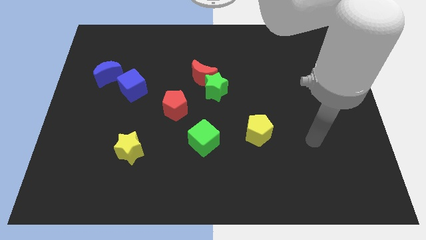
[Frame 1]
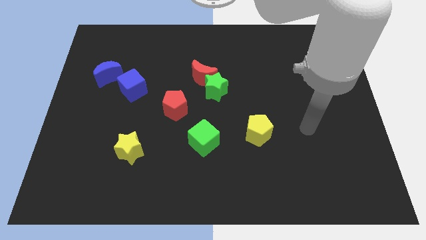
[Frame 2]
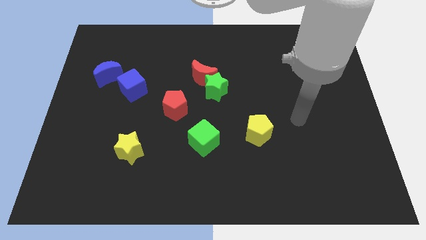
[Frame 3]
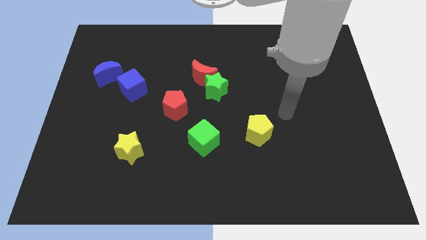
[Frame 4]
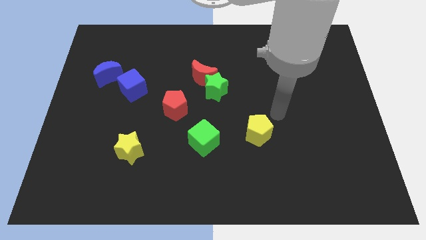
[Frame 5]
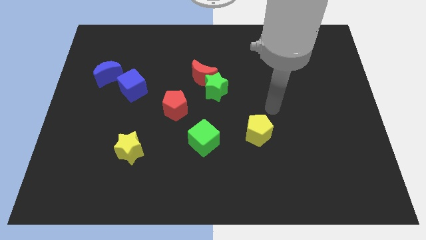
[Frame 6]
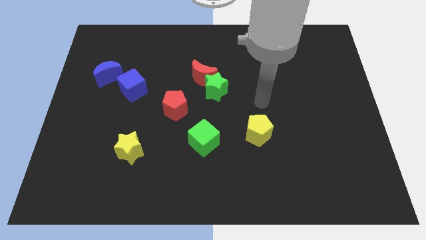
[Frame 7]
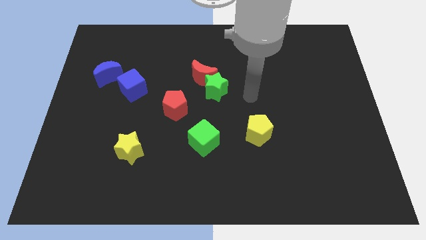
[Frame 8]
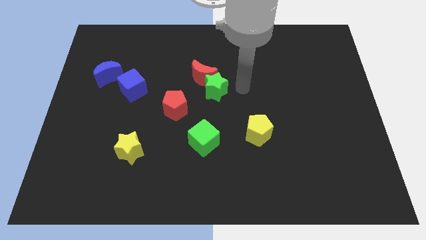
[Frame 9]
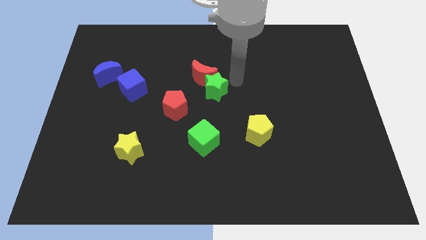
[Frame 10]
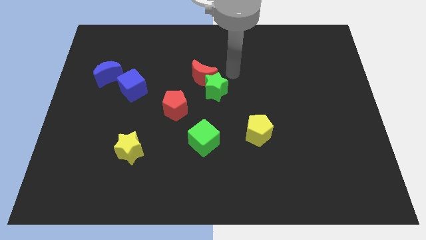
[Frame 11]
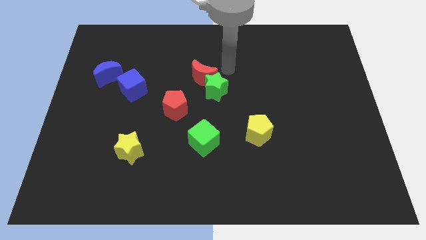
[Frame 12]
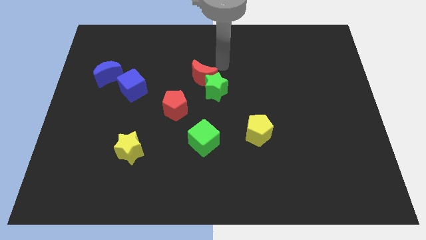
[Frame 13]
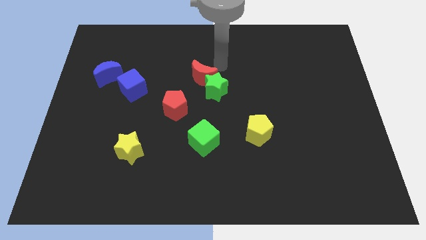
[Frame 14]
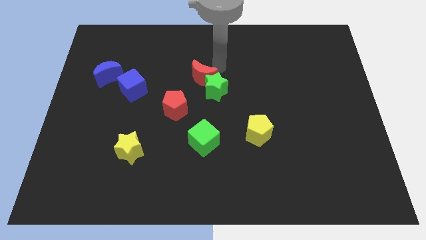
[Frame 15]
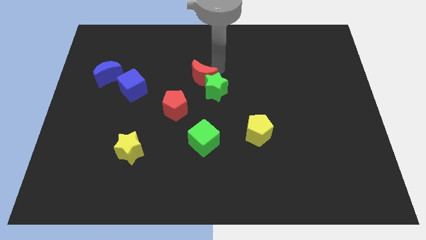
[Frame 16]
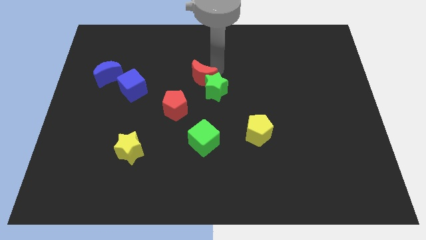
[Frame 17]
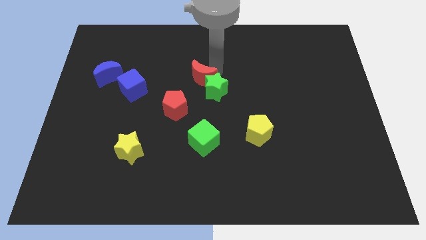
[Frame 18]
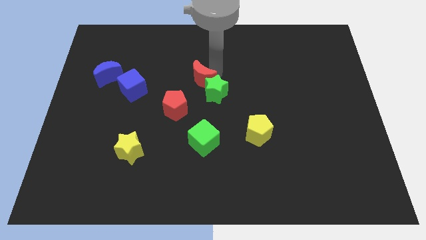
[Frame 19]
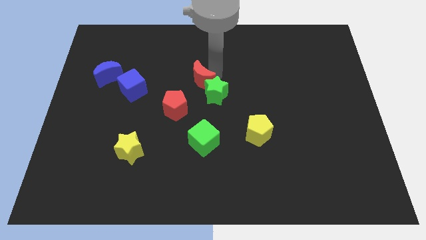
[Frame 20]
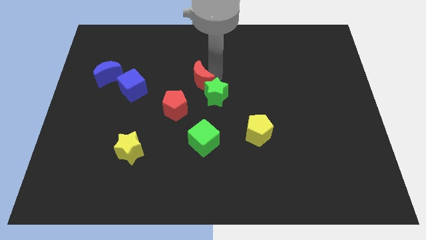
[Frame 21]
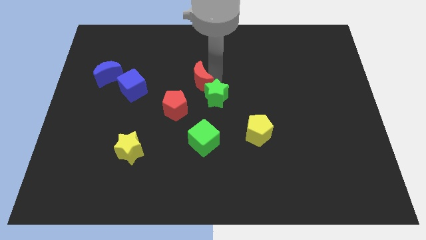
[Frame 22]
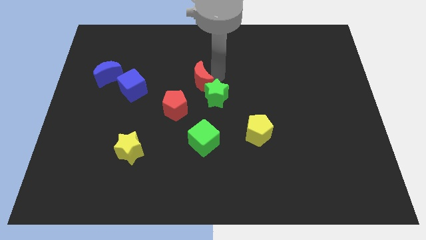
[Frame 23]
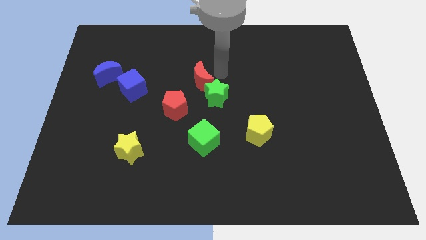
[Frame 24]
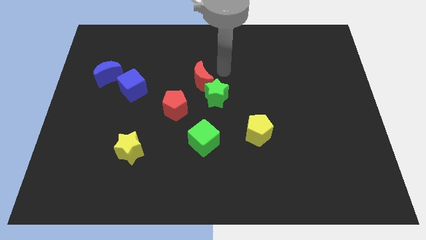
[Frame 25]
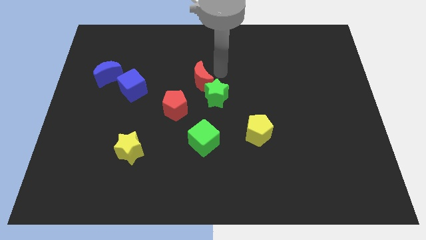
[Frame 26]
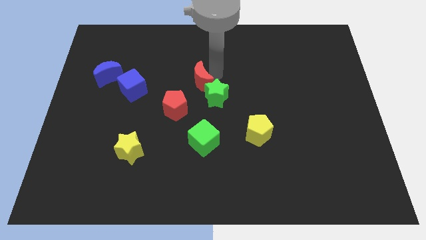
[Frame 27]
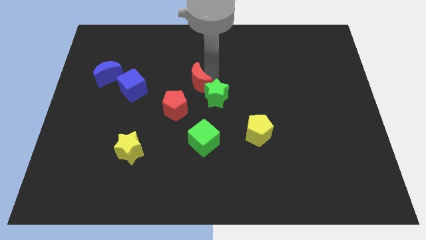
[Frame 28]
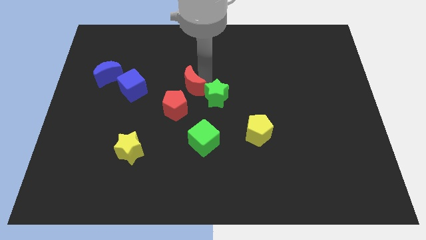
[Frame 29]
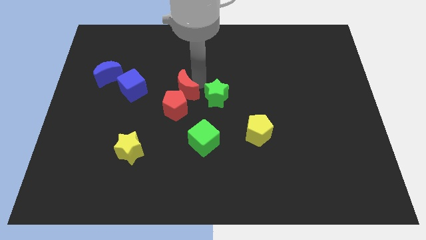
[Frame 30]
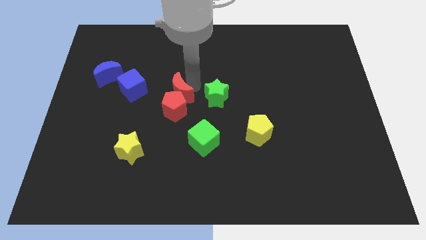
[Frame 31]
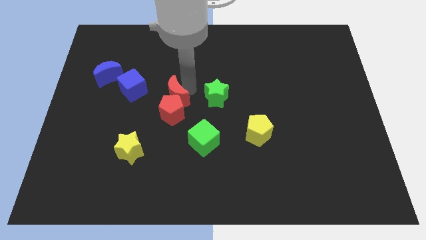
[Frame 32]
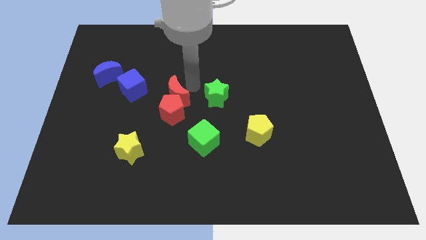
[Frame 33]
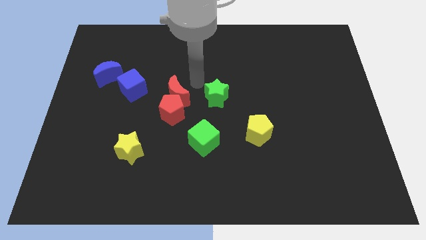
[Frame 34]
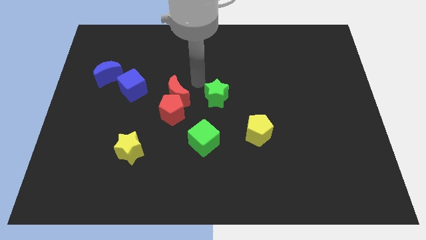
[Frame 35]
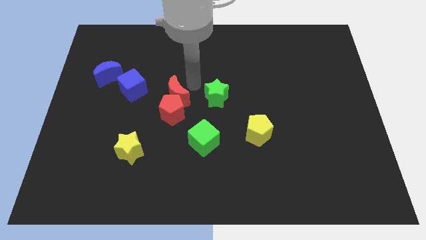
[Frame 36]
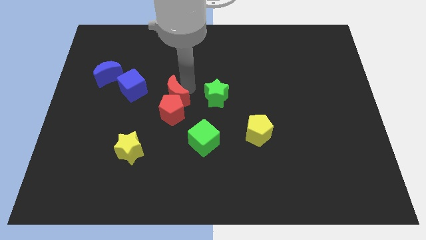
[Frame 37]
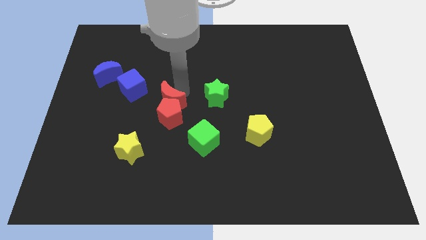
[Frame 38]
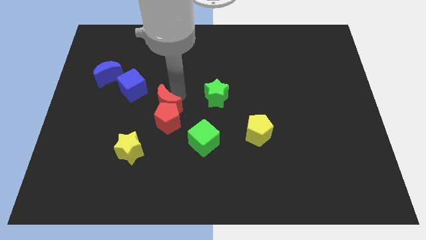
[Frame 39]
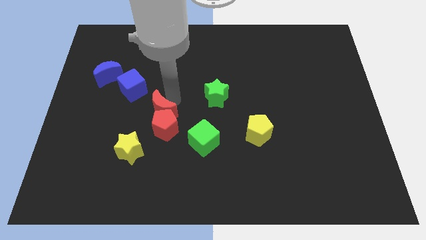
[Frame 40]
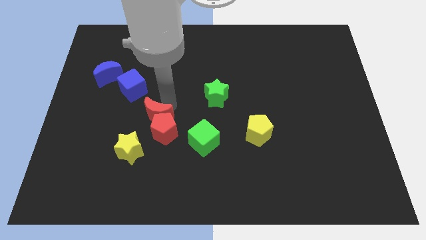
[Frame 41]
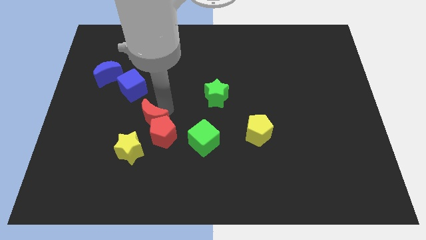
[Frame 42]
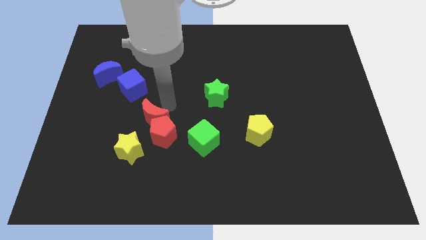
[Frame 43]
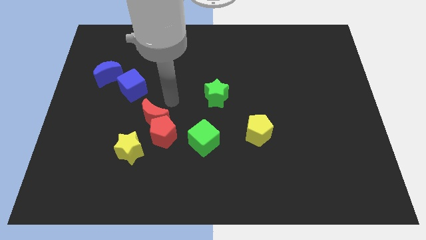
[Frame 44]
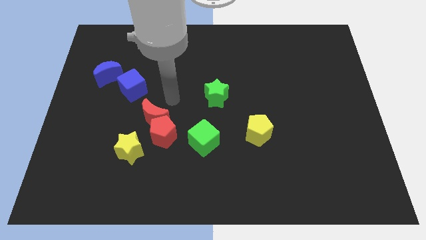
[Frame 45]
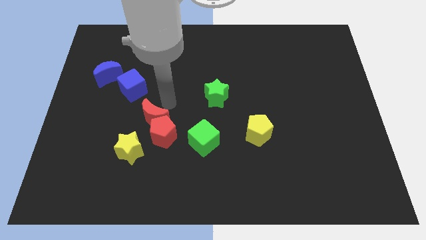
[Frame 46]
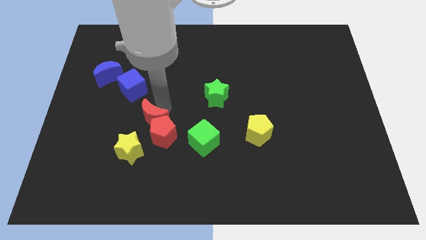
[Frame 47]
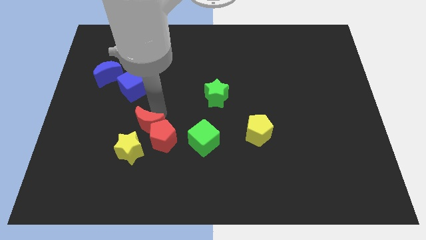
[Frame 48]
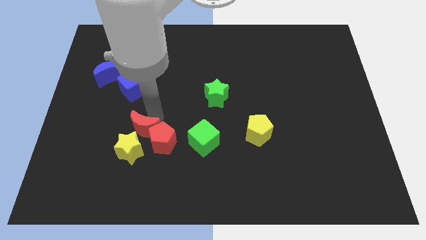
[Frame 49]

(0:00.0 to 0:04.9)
push the red moon close to the yellow star

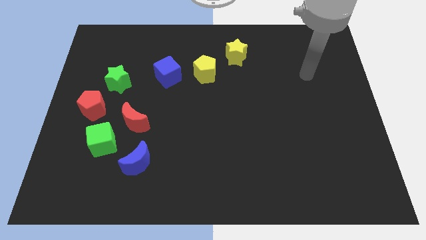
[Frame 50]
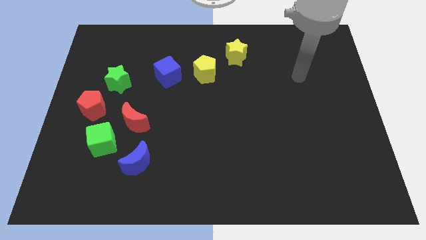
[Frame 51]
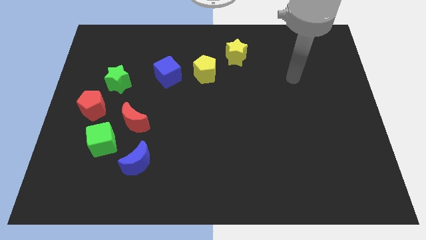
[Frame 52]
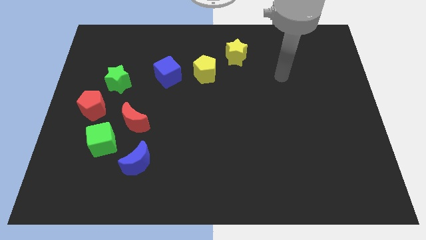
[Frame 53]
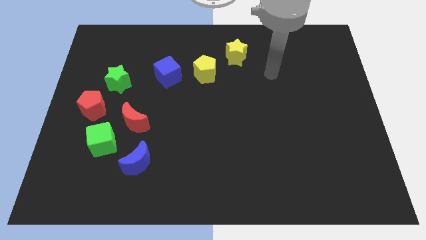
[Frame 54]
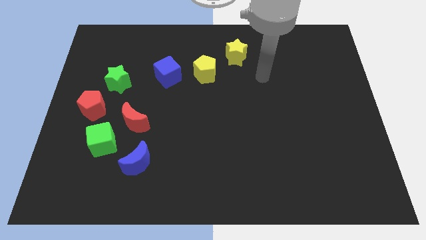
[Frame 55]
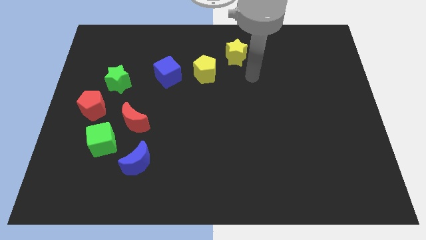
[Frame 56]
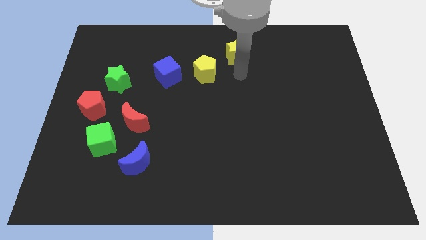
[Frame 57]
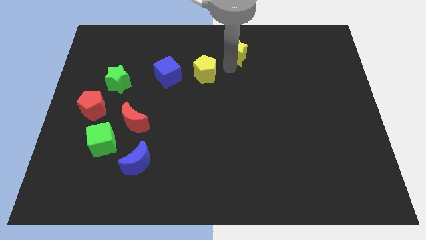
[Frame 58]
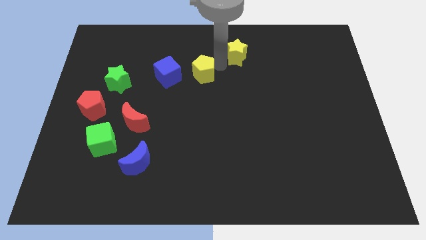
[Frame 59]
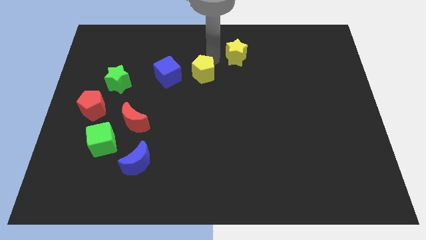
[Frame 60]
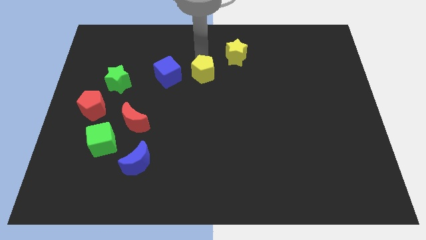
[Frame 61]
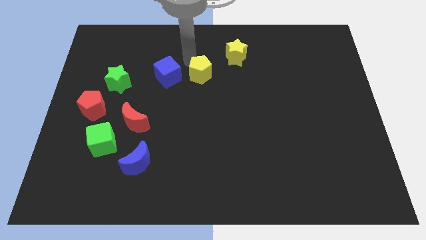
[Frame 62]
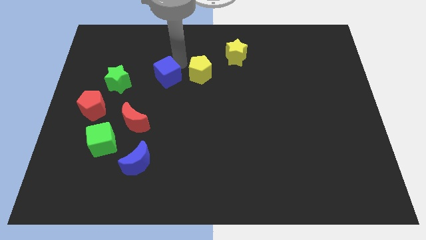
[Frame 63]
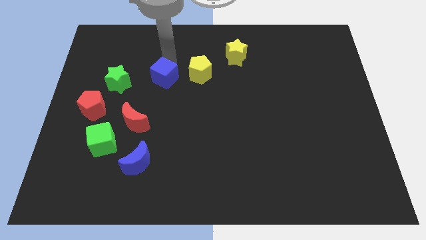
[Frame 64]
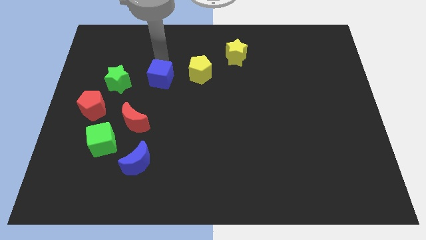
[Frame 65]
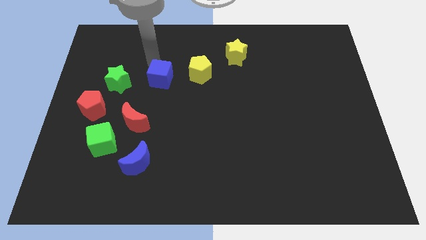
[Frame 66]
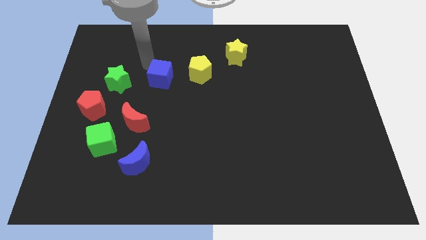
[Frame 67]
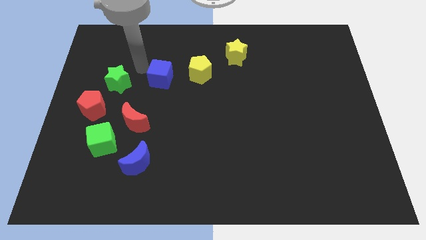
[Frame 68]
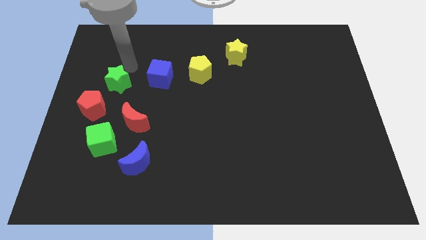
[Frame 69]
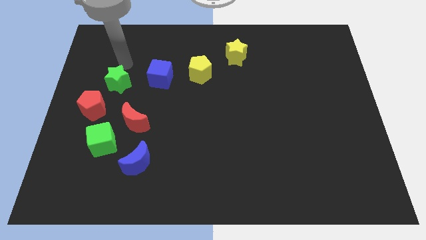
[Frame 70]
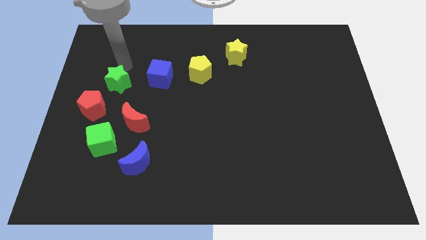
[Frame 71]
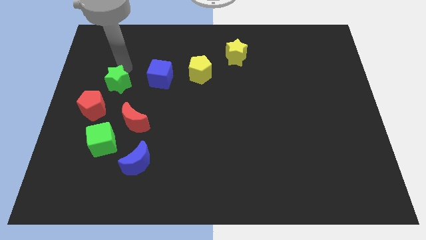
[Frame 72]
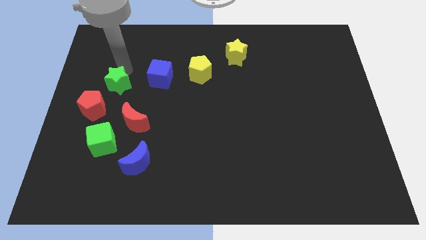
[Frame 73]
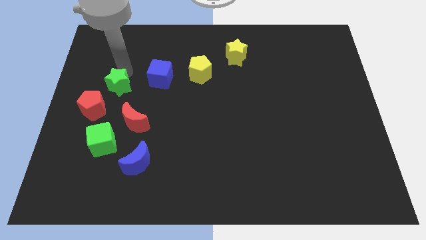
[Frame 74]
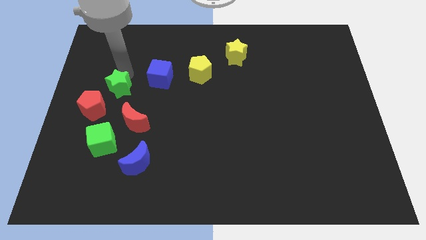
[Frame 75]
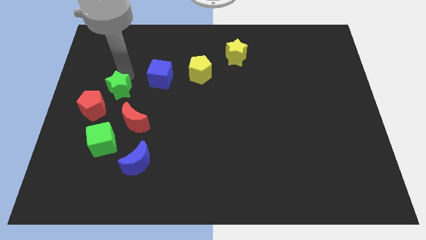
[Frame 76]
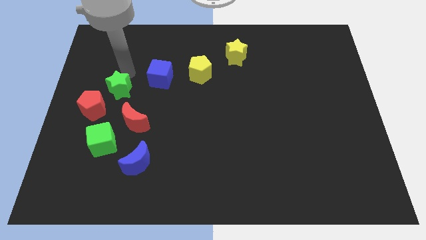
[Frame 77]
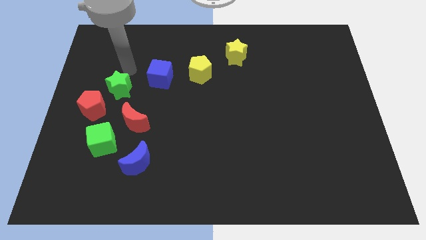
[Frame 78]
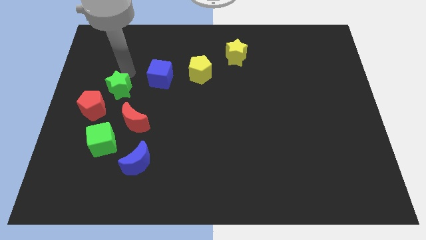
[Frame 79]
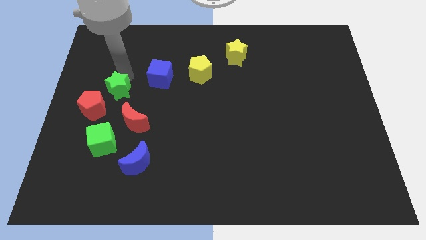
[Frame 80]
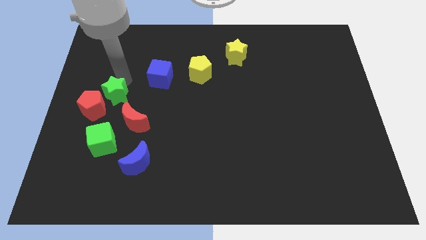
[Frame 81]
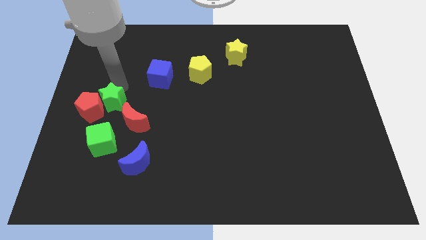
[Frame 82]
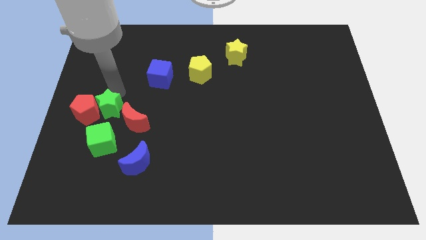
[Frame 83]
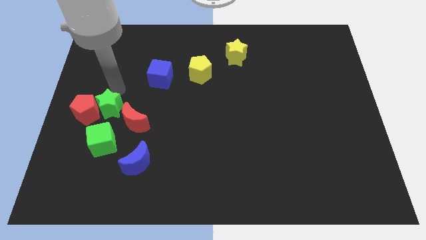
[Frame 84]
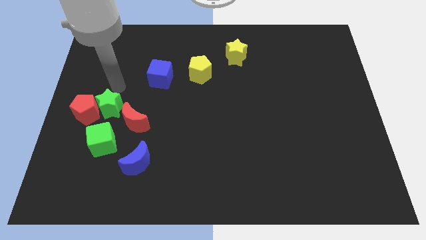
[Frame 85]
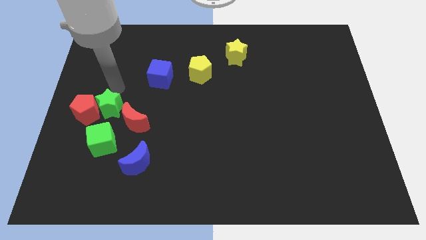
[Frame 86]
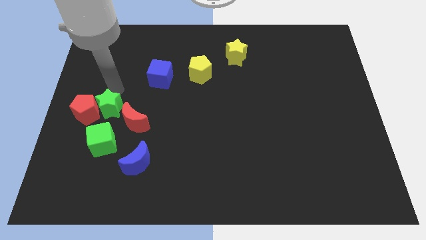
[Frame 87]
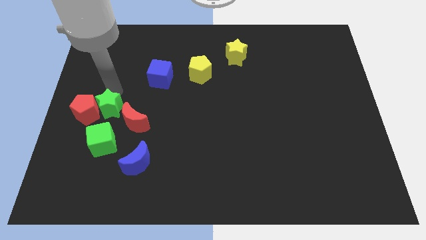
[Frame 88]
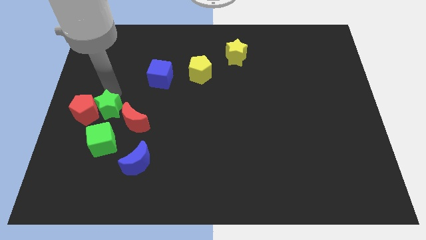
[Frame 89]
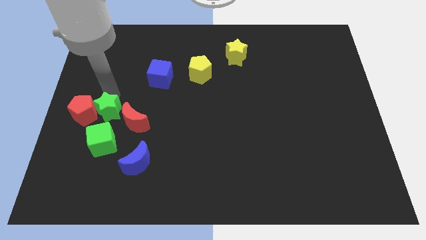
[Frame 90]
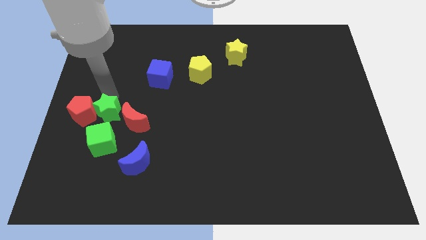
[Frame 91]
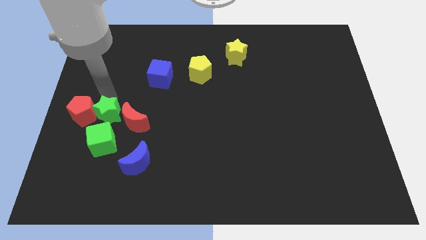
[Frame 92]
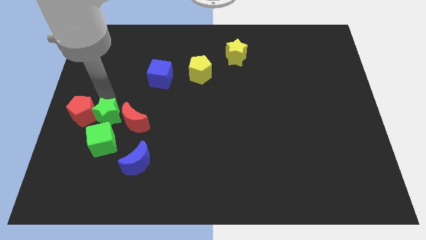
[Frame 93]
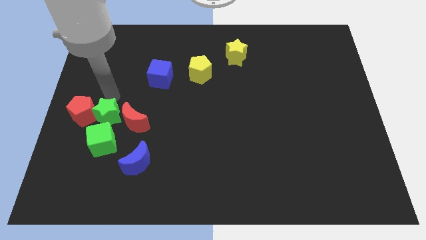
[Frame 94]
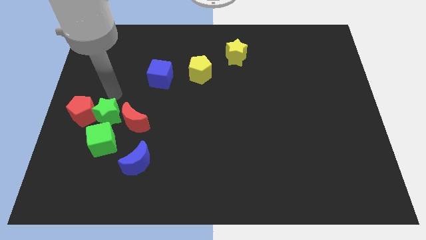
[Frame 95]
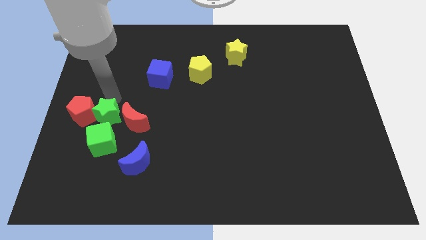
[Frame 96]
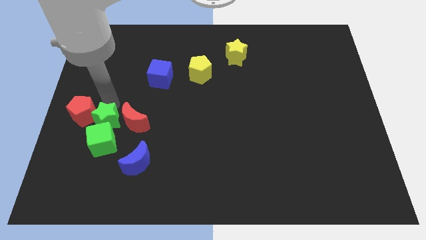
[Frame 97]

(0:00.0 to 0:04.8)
slide the green star towards the green cube
